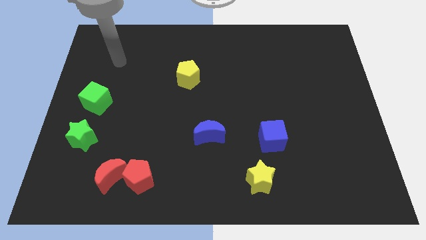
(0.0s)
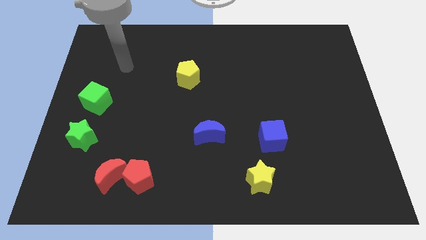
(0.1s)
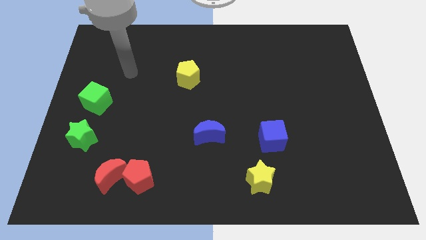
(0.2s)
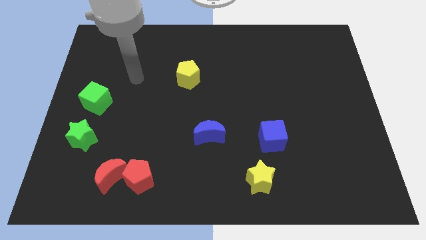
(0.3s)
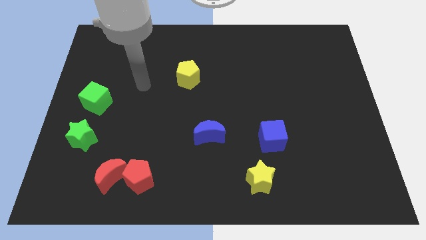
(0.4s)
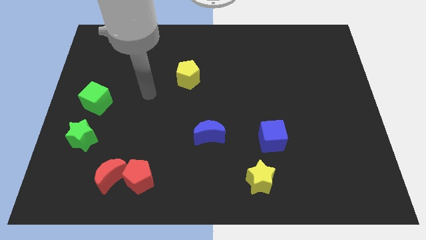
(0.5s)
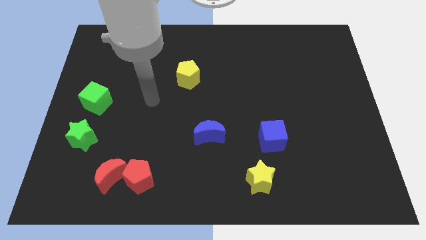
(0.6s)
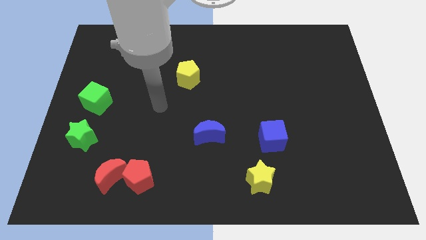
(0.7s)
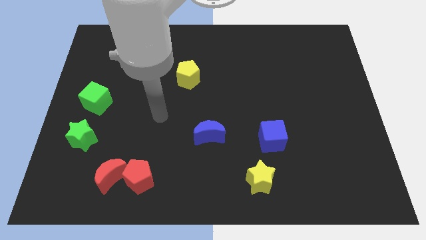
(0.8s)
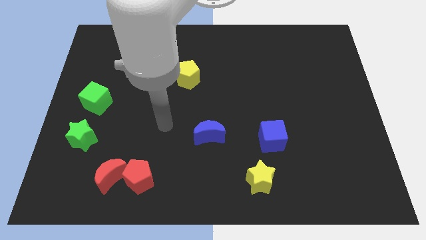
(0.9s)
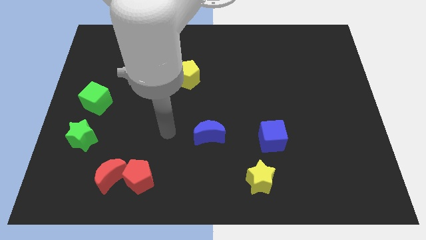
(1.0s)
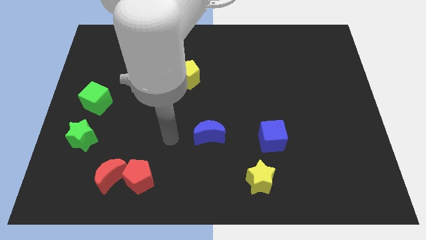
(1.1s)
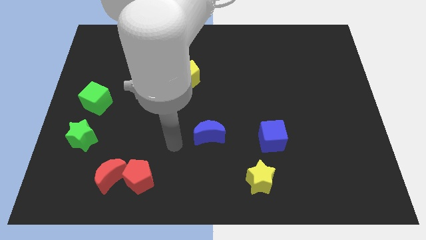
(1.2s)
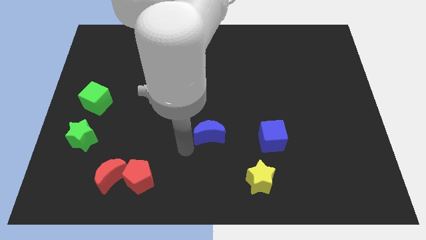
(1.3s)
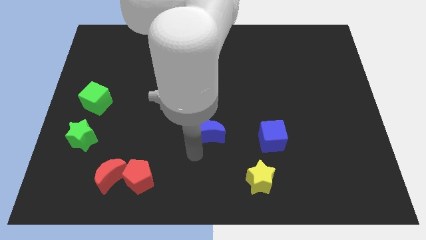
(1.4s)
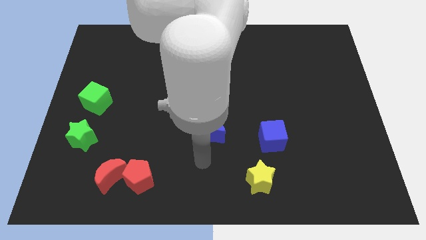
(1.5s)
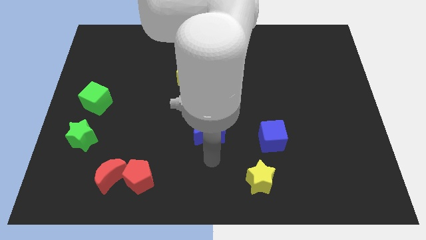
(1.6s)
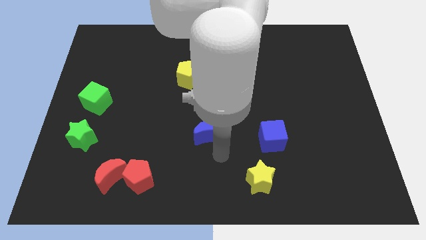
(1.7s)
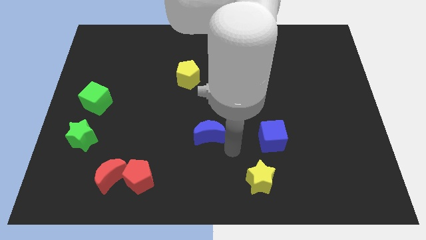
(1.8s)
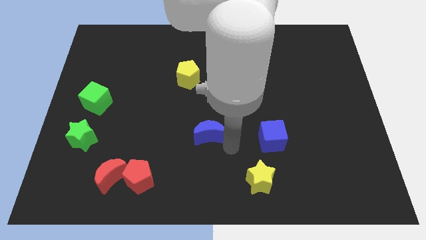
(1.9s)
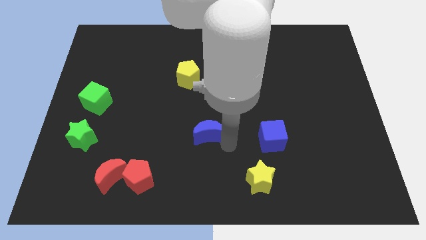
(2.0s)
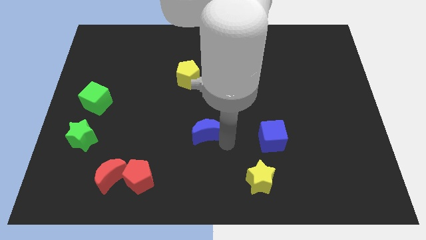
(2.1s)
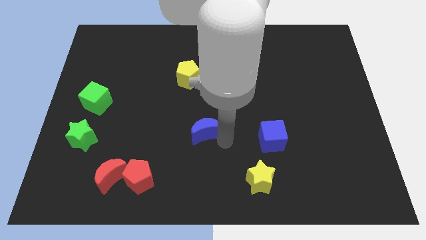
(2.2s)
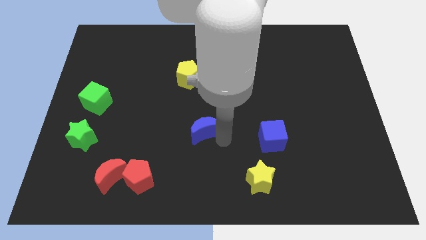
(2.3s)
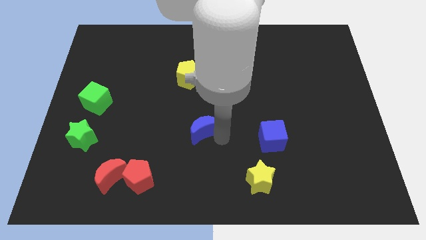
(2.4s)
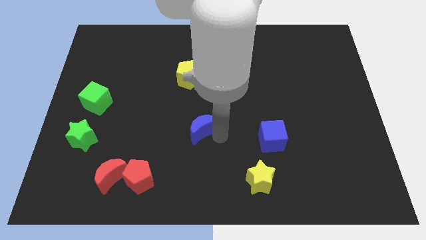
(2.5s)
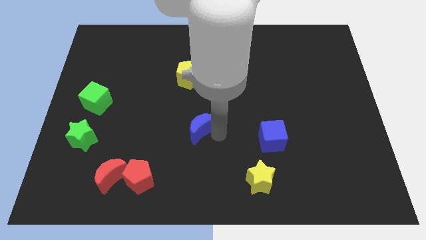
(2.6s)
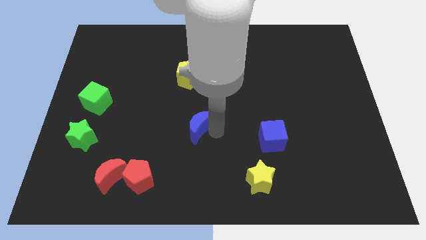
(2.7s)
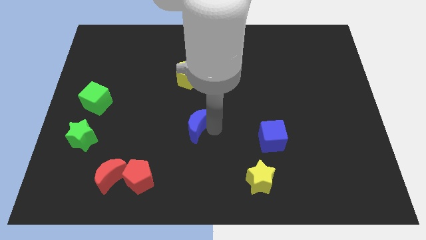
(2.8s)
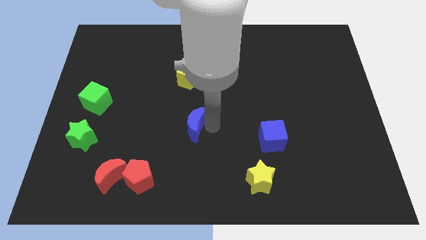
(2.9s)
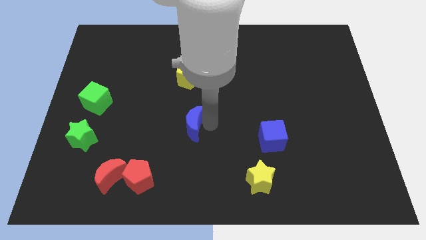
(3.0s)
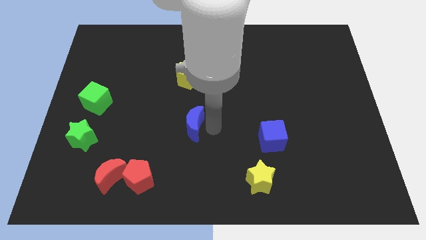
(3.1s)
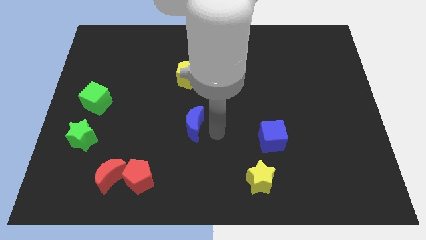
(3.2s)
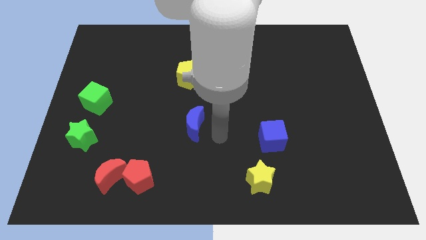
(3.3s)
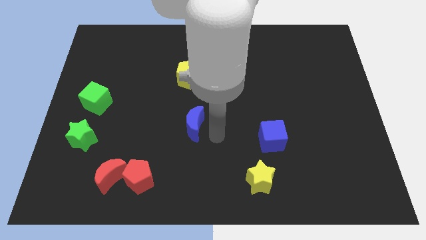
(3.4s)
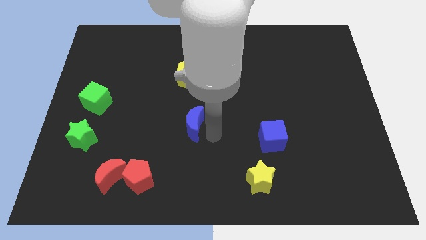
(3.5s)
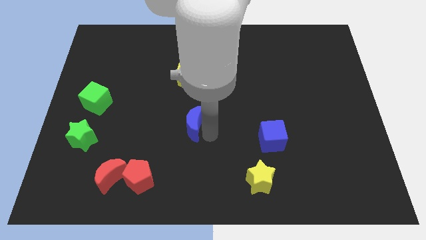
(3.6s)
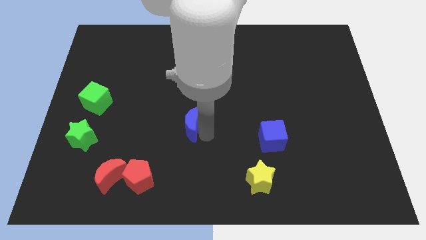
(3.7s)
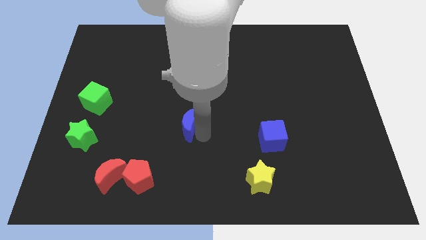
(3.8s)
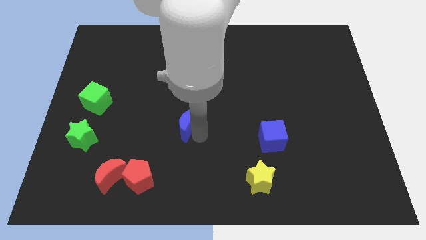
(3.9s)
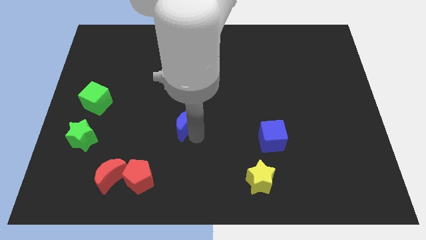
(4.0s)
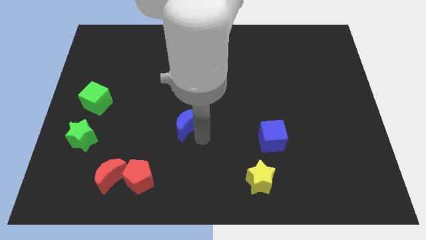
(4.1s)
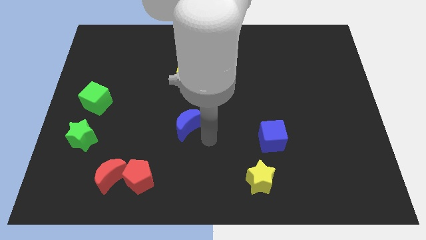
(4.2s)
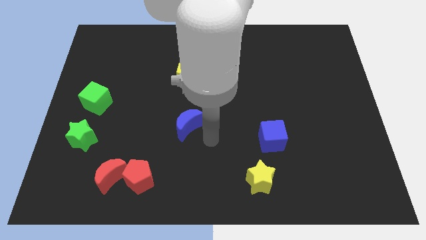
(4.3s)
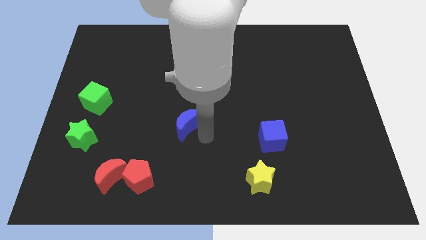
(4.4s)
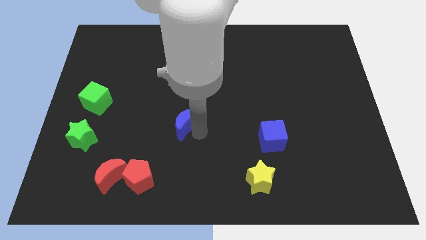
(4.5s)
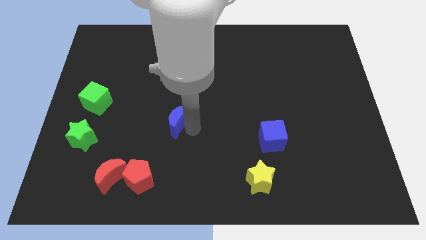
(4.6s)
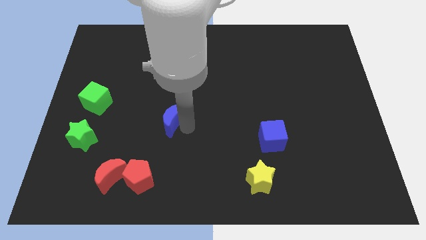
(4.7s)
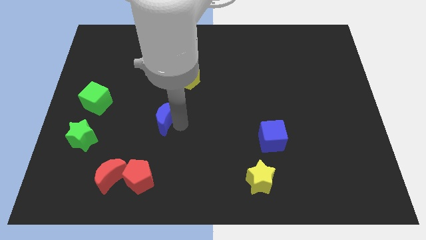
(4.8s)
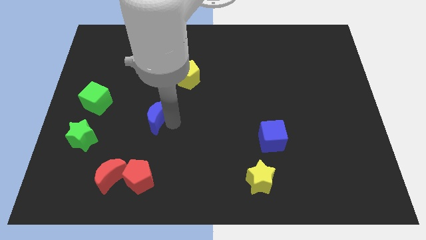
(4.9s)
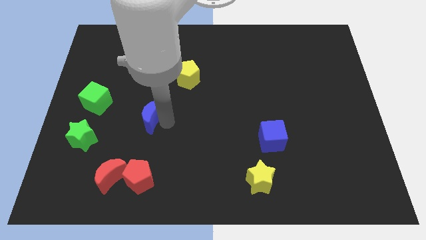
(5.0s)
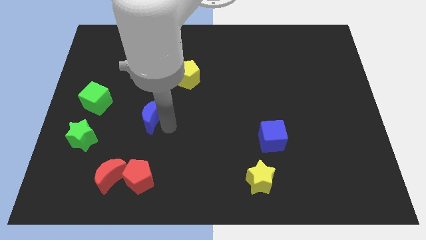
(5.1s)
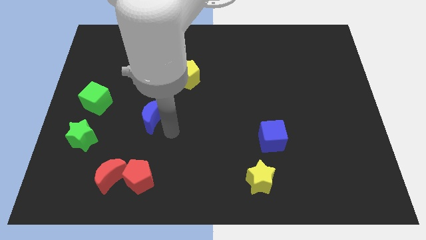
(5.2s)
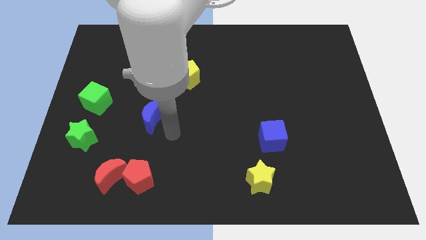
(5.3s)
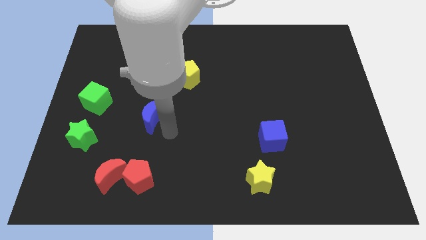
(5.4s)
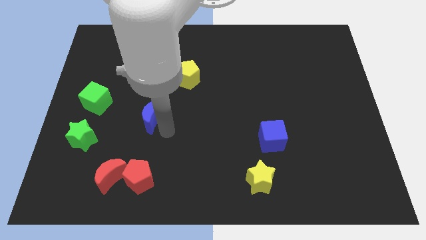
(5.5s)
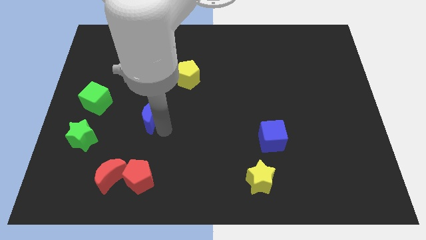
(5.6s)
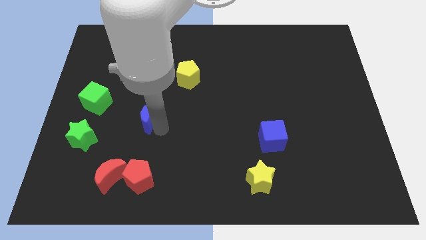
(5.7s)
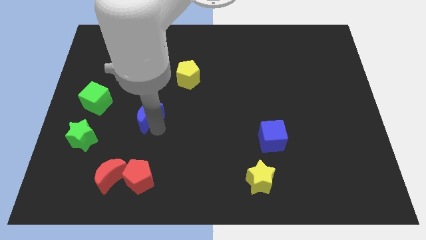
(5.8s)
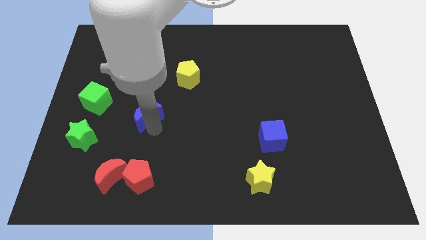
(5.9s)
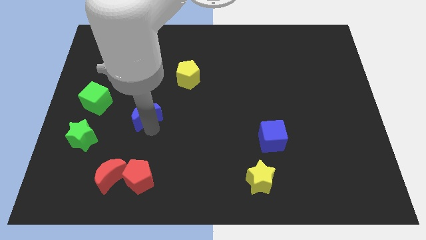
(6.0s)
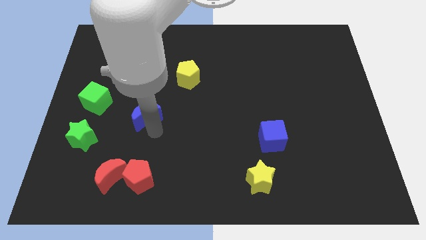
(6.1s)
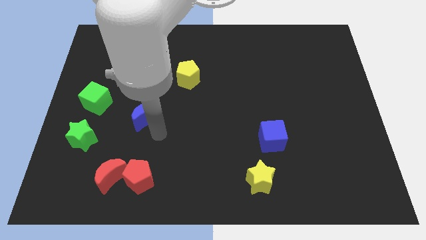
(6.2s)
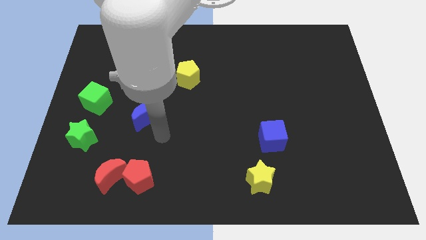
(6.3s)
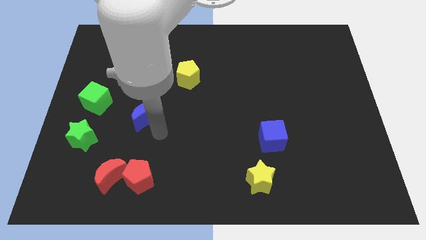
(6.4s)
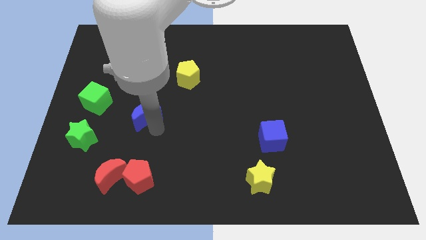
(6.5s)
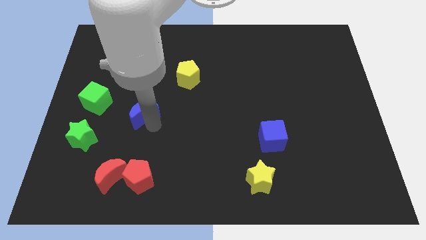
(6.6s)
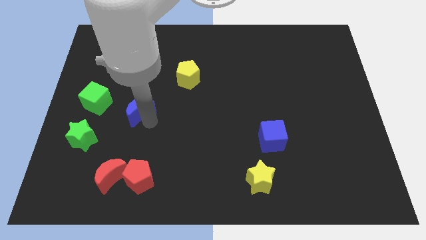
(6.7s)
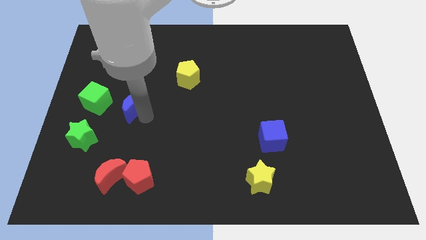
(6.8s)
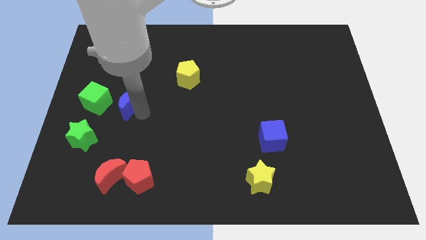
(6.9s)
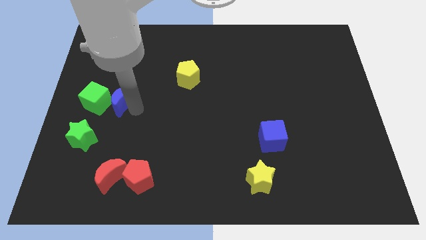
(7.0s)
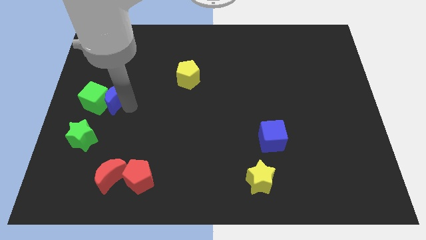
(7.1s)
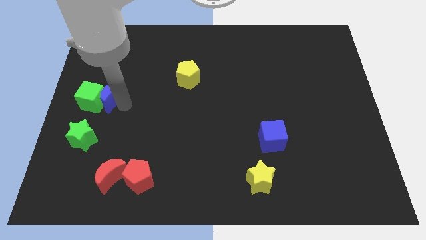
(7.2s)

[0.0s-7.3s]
slide the blue moon to the top of the green star

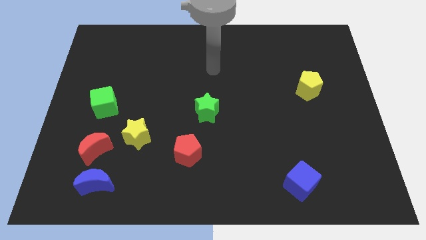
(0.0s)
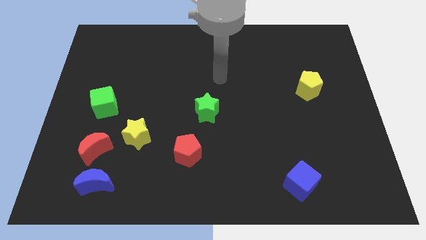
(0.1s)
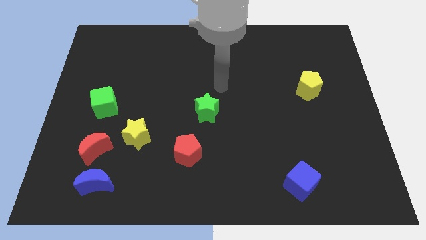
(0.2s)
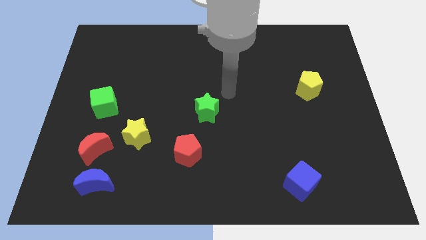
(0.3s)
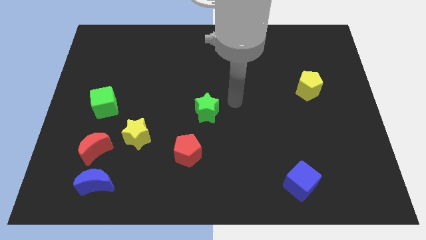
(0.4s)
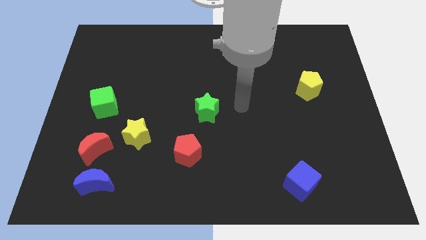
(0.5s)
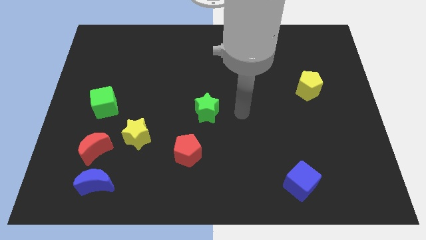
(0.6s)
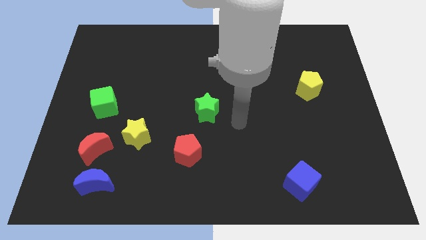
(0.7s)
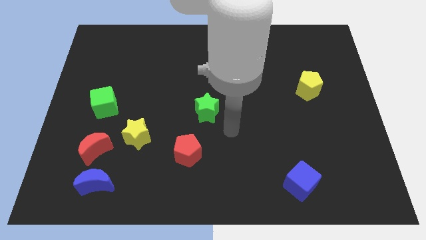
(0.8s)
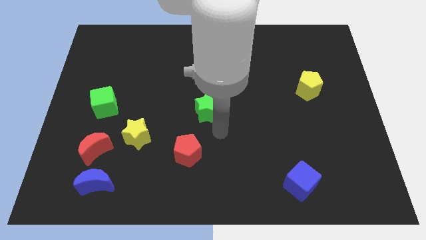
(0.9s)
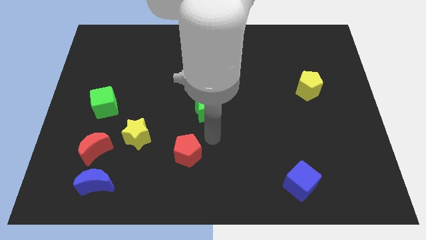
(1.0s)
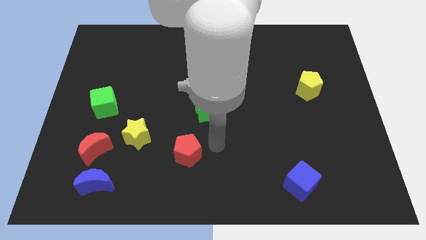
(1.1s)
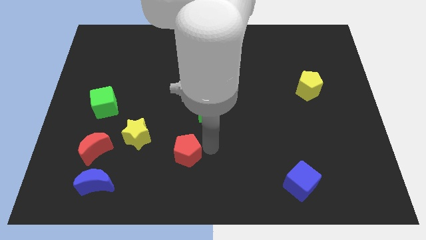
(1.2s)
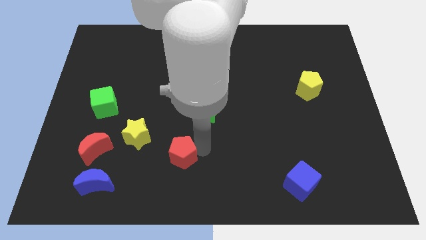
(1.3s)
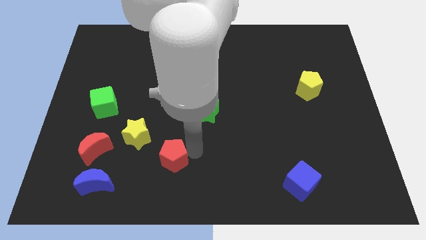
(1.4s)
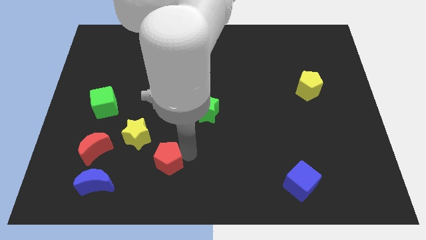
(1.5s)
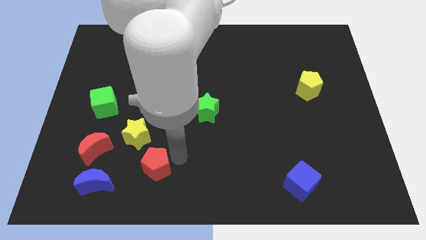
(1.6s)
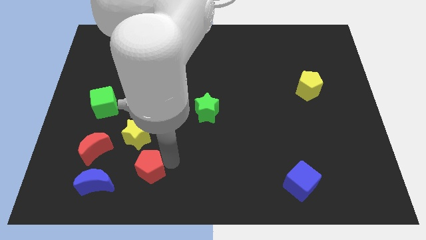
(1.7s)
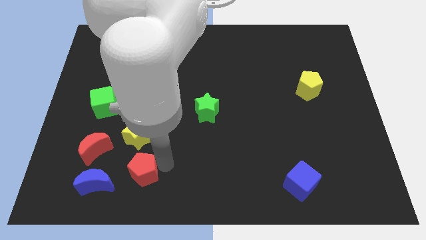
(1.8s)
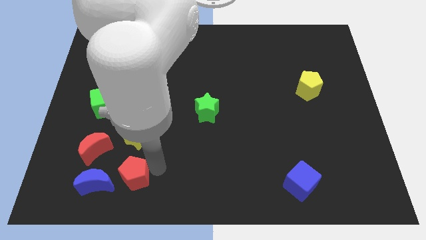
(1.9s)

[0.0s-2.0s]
slide the red pentagon diagonally down and to the right of the red moon
